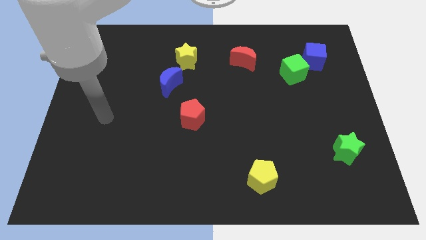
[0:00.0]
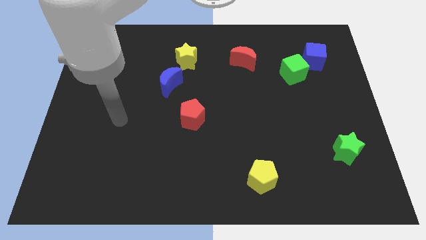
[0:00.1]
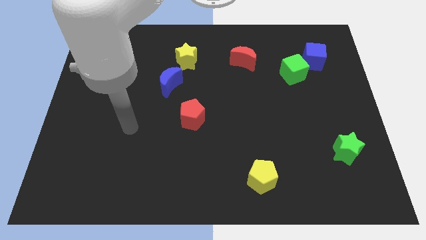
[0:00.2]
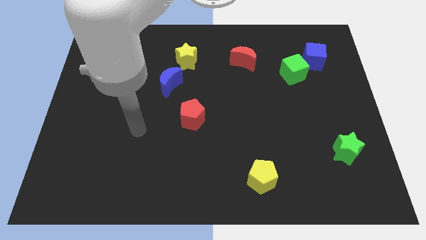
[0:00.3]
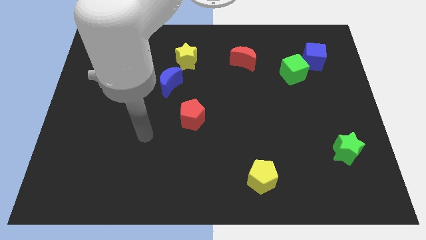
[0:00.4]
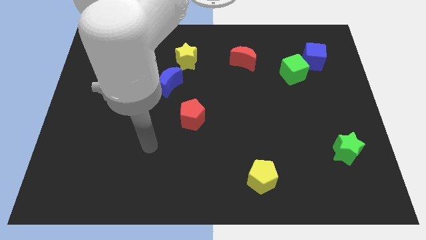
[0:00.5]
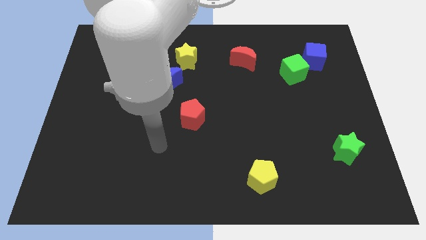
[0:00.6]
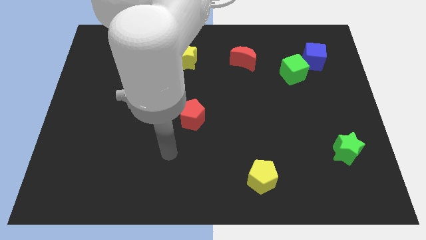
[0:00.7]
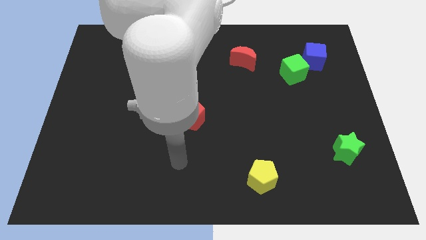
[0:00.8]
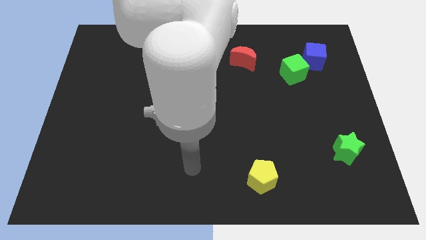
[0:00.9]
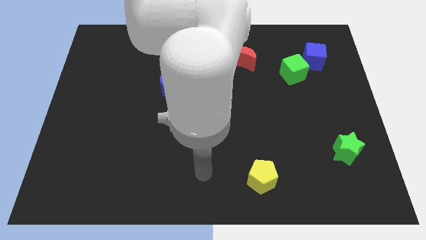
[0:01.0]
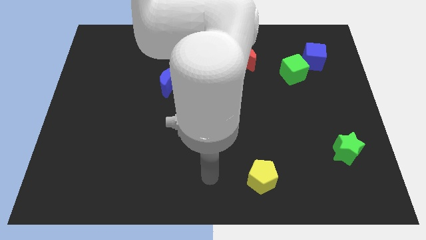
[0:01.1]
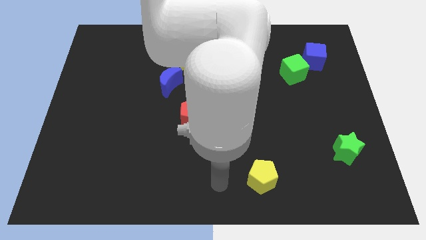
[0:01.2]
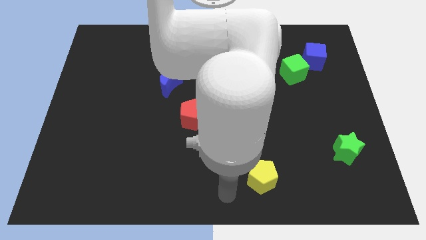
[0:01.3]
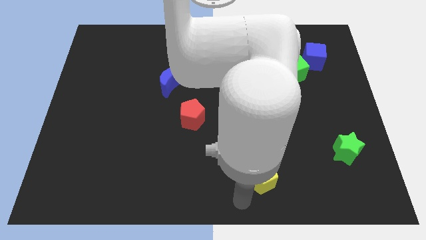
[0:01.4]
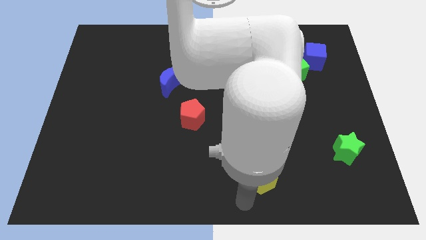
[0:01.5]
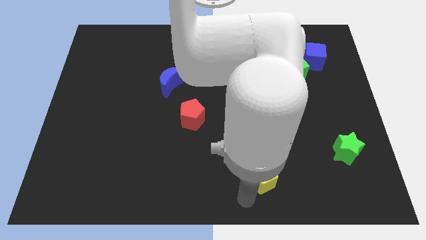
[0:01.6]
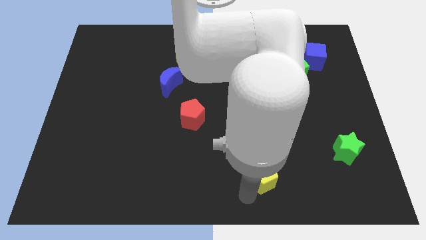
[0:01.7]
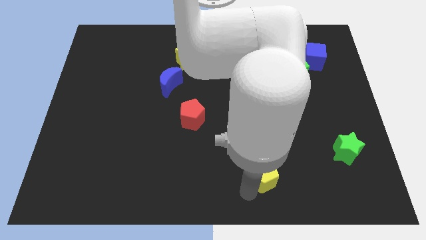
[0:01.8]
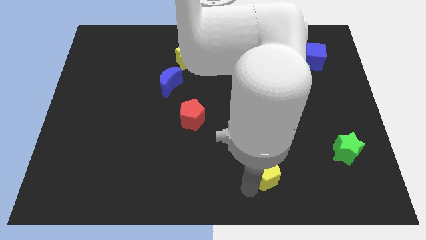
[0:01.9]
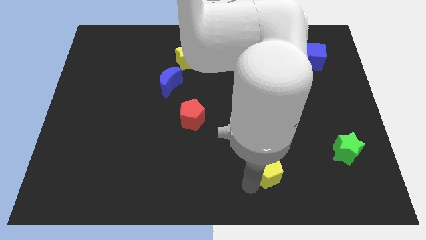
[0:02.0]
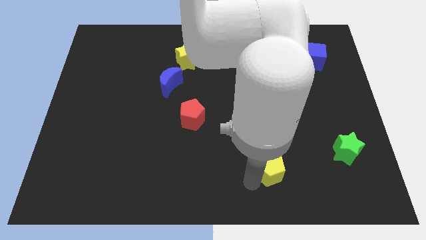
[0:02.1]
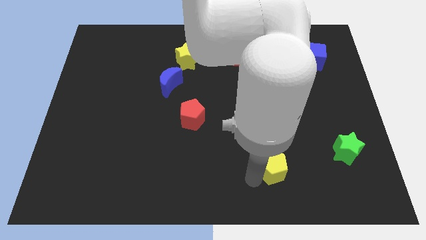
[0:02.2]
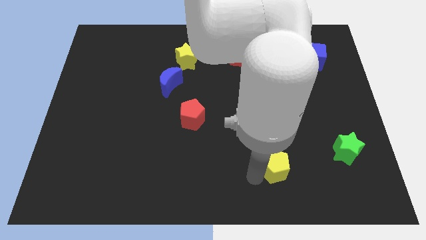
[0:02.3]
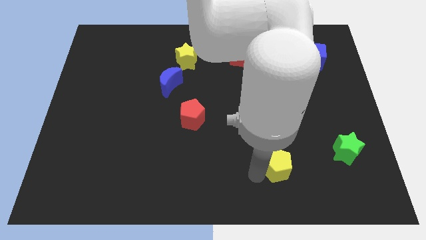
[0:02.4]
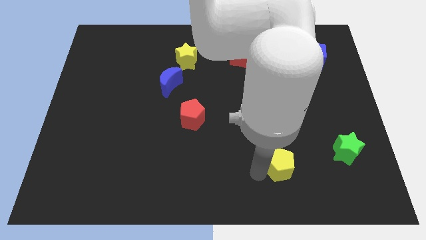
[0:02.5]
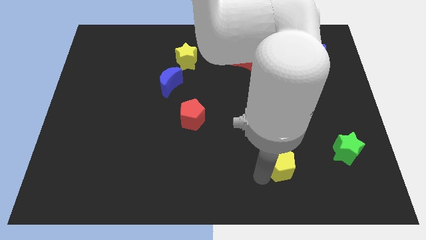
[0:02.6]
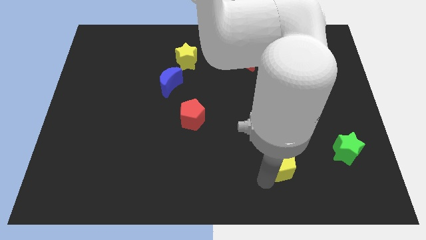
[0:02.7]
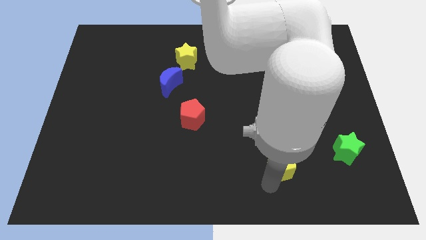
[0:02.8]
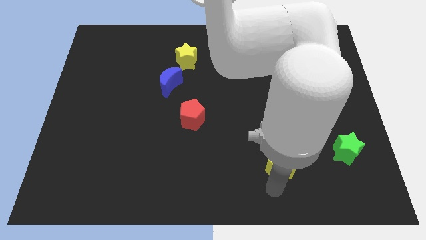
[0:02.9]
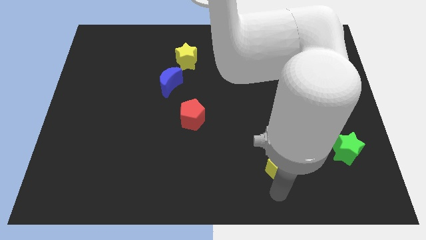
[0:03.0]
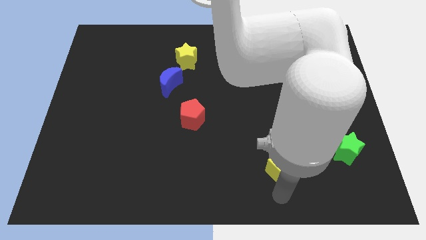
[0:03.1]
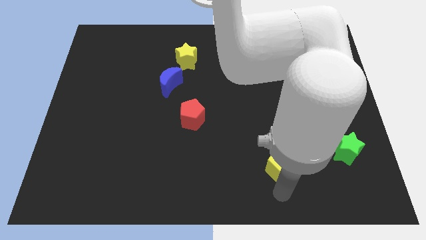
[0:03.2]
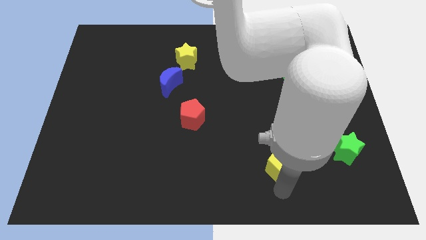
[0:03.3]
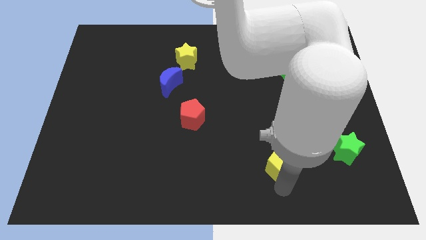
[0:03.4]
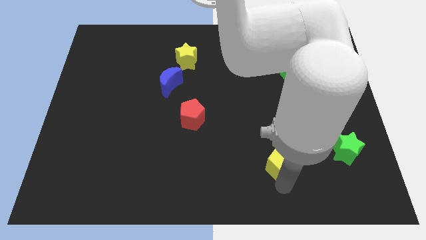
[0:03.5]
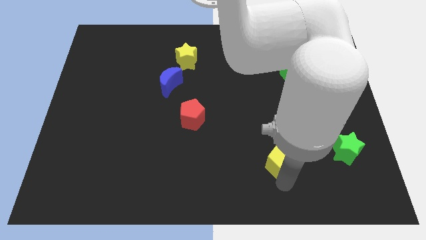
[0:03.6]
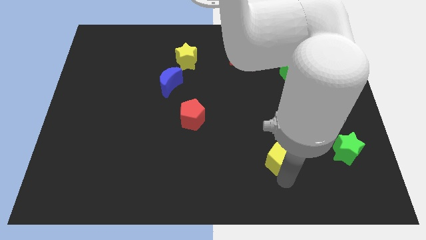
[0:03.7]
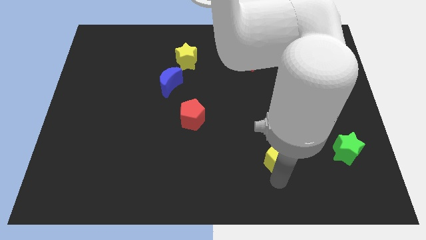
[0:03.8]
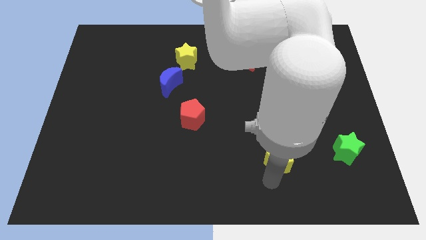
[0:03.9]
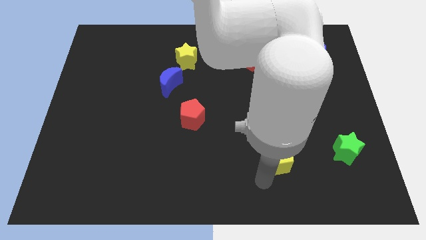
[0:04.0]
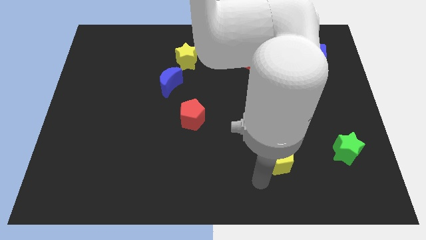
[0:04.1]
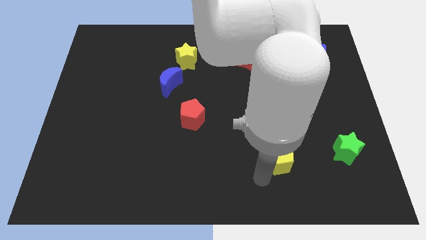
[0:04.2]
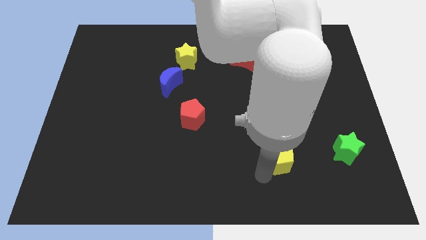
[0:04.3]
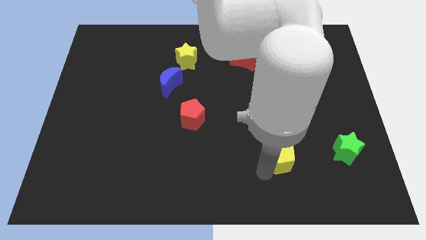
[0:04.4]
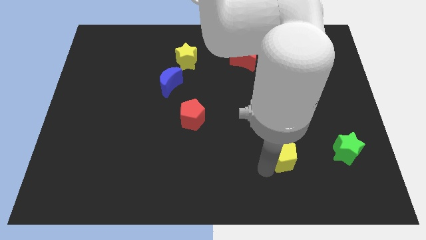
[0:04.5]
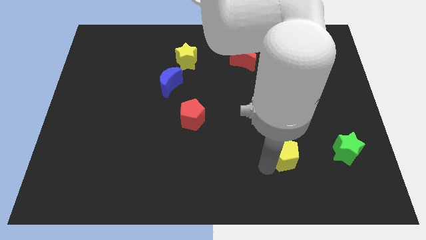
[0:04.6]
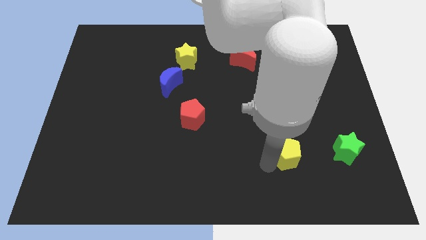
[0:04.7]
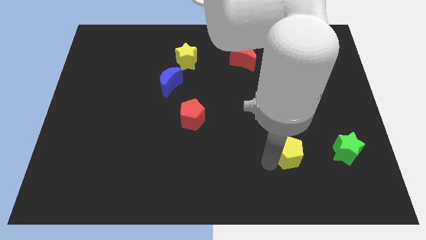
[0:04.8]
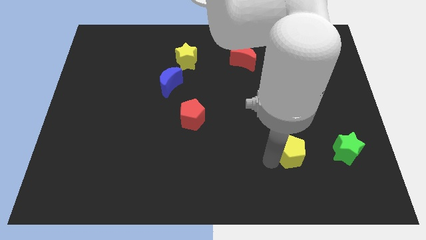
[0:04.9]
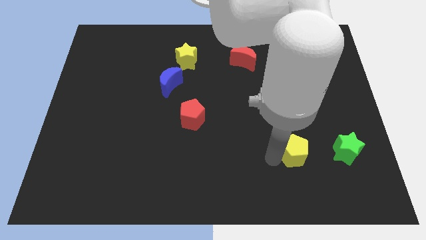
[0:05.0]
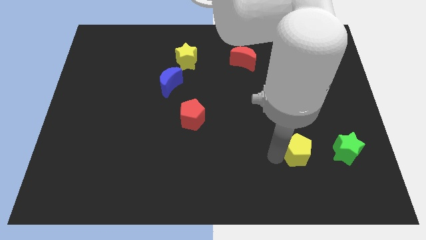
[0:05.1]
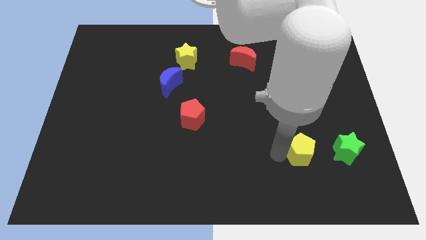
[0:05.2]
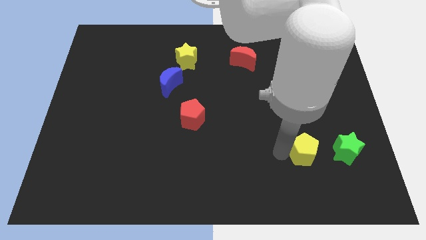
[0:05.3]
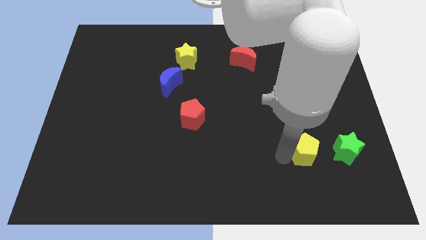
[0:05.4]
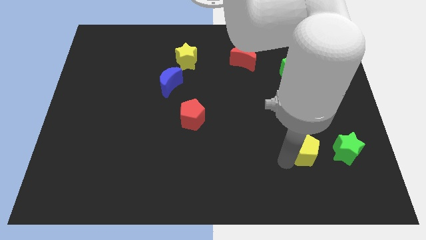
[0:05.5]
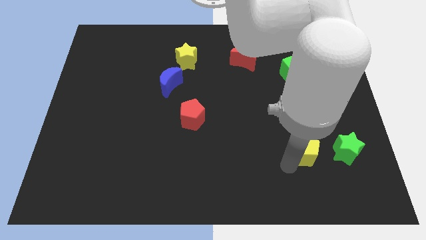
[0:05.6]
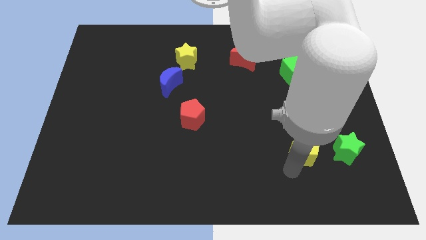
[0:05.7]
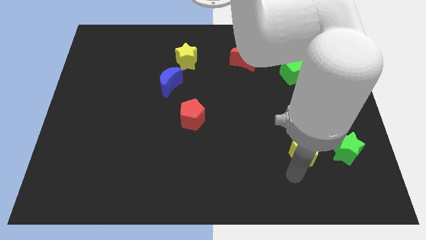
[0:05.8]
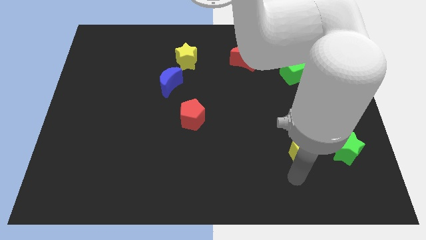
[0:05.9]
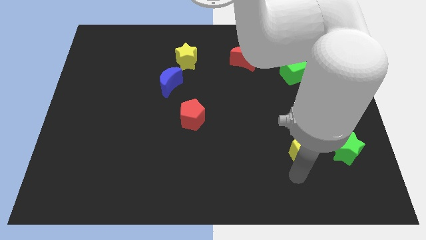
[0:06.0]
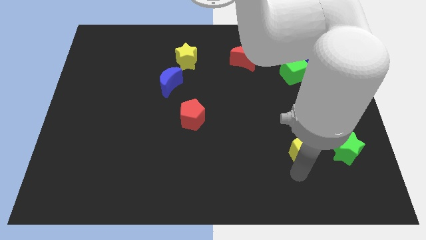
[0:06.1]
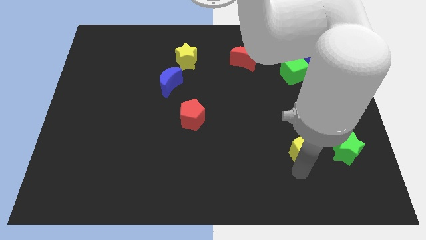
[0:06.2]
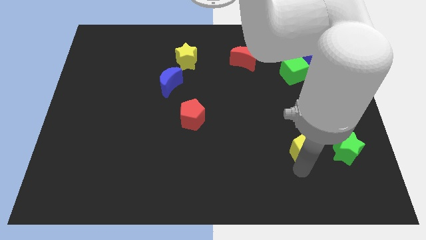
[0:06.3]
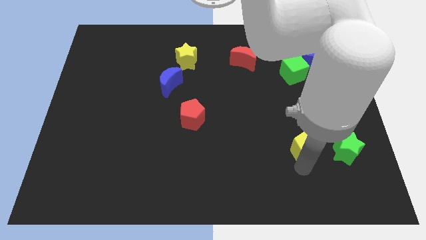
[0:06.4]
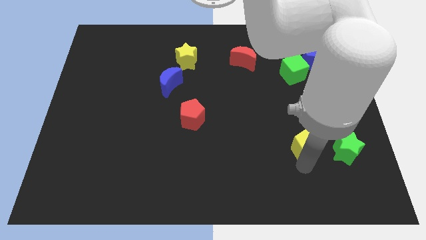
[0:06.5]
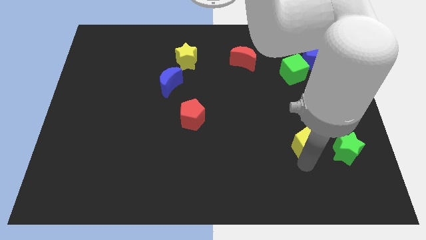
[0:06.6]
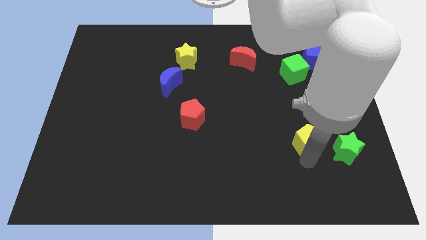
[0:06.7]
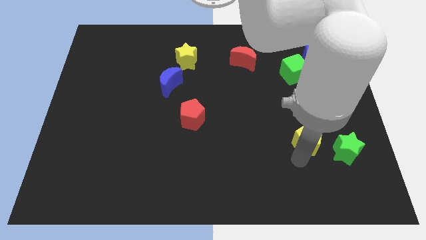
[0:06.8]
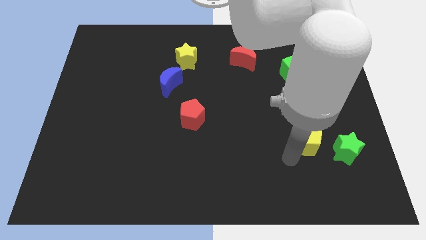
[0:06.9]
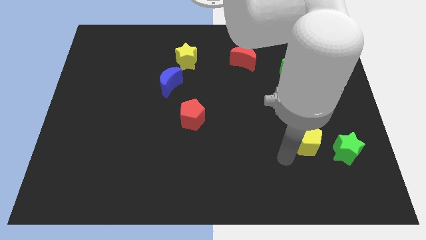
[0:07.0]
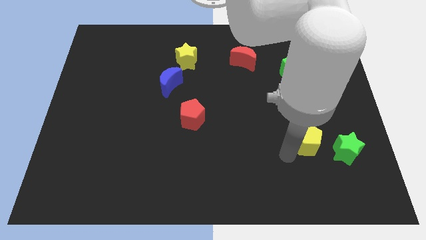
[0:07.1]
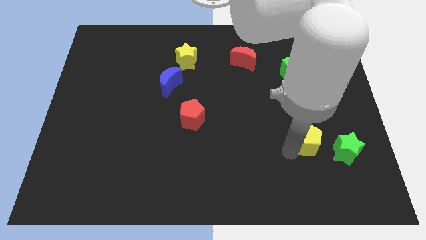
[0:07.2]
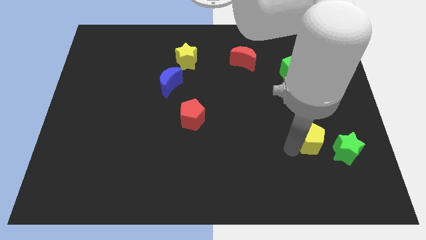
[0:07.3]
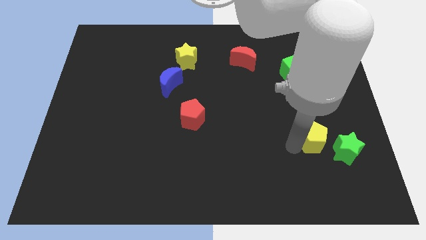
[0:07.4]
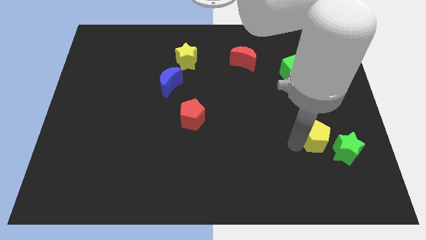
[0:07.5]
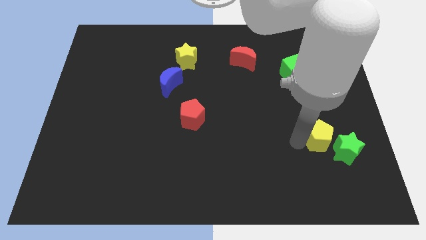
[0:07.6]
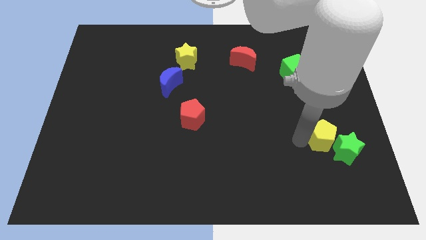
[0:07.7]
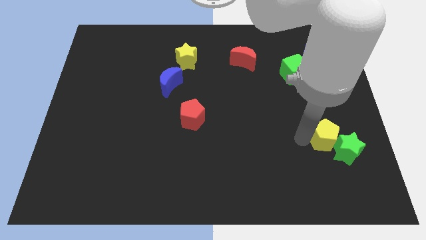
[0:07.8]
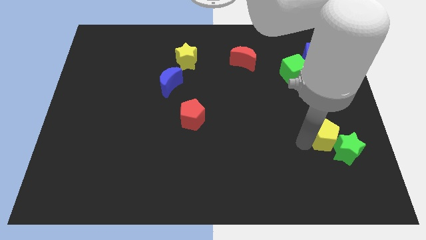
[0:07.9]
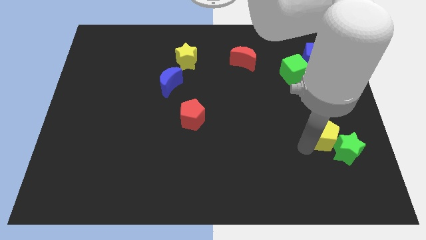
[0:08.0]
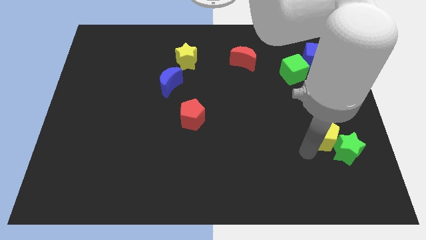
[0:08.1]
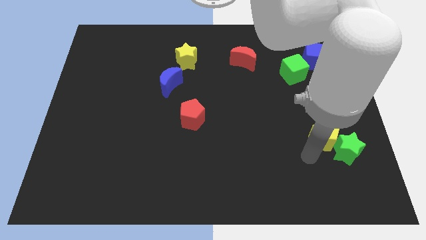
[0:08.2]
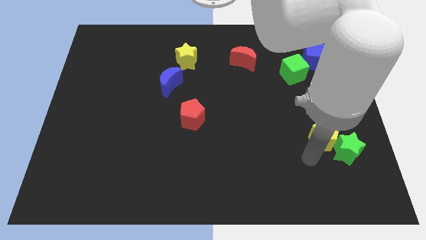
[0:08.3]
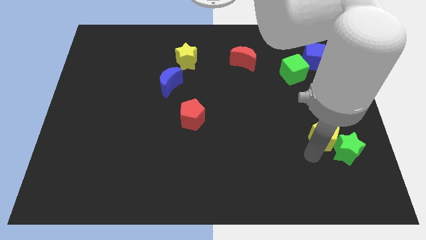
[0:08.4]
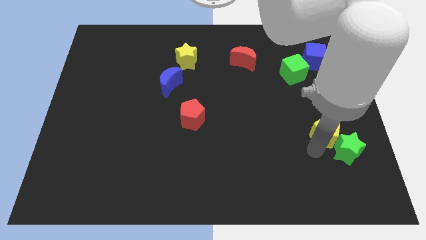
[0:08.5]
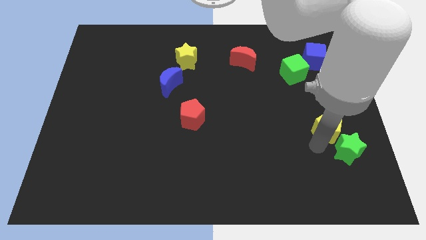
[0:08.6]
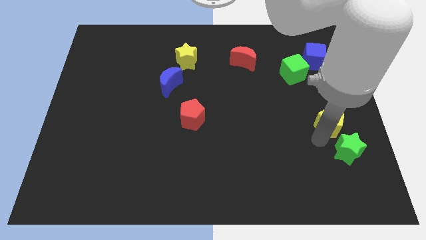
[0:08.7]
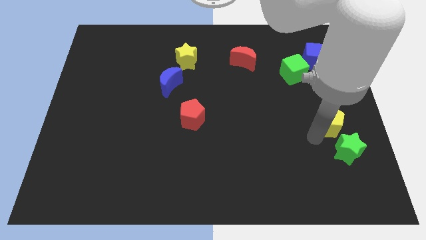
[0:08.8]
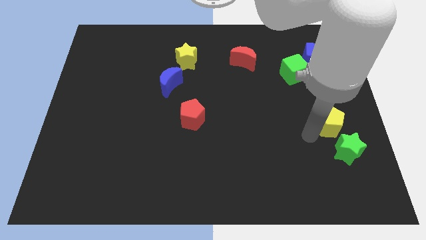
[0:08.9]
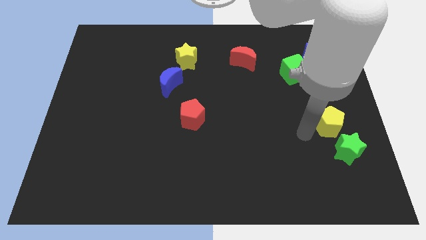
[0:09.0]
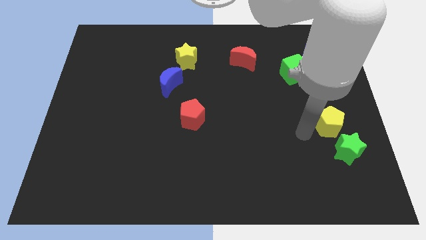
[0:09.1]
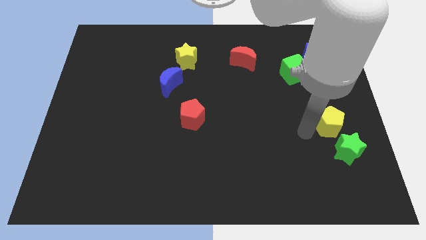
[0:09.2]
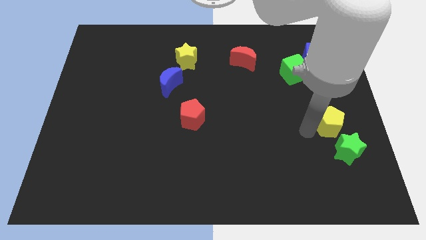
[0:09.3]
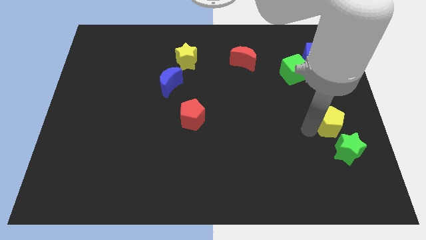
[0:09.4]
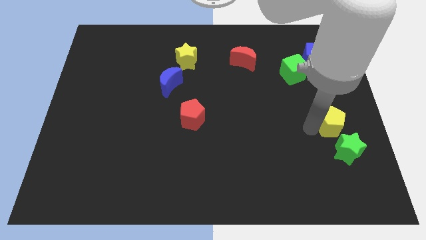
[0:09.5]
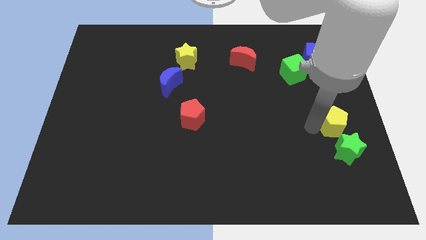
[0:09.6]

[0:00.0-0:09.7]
put the yellow pentagon to the center right
